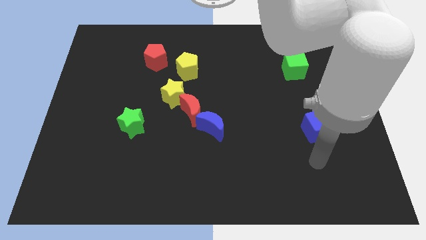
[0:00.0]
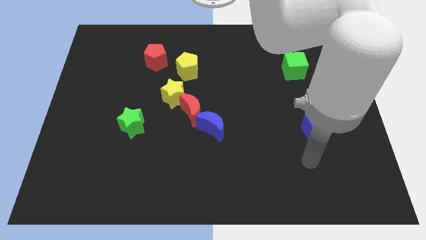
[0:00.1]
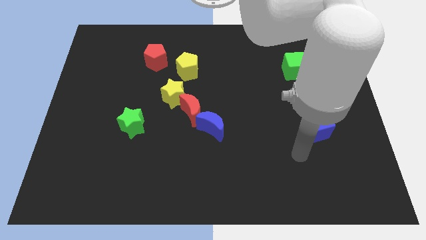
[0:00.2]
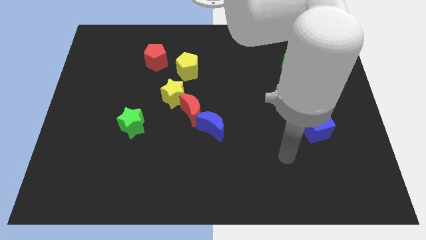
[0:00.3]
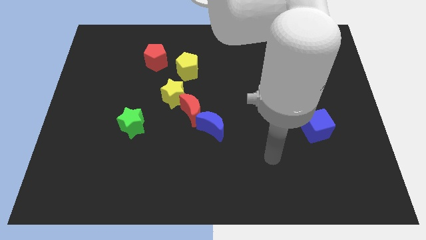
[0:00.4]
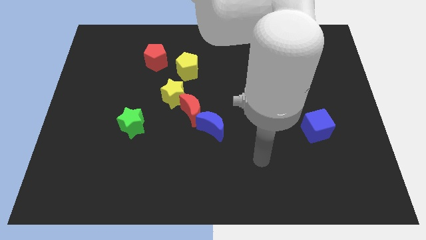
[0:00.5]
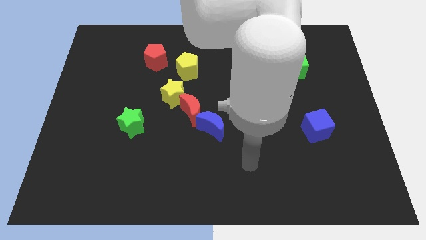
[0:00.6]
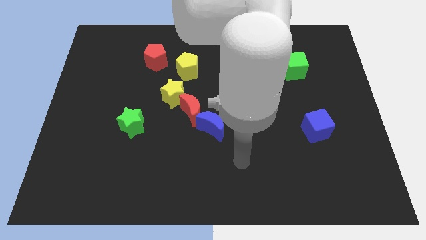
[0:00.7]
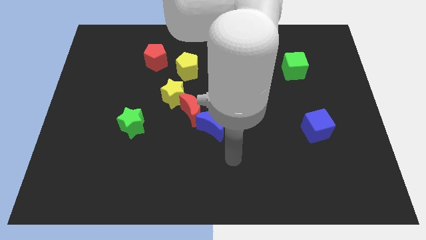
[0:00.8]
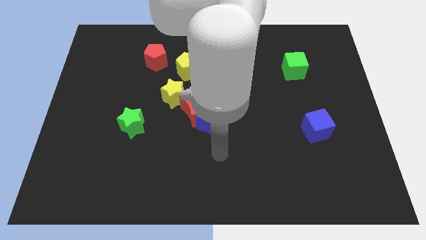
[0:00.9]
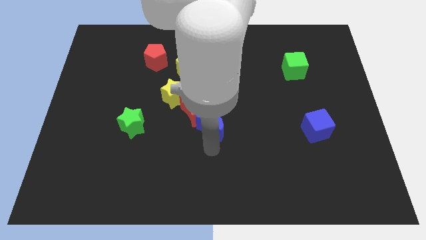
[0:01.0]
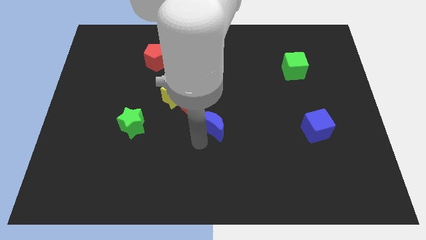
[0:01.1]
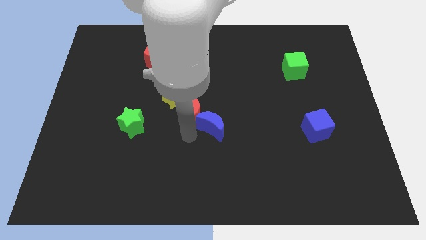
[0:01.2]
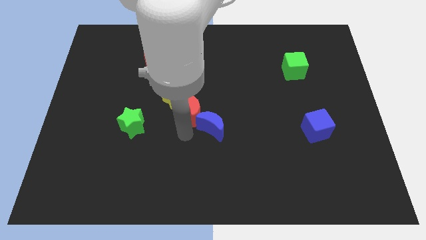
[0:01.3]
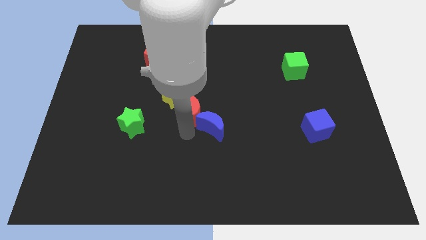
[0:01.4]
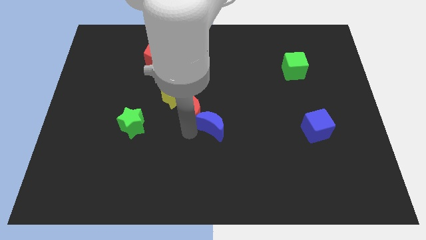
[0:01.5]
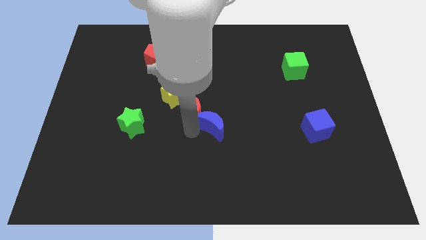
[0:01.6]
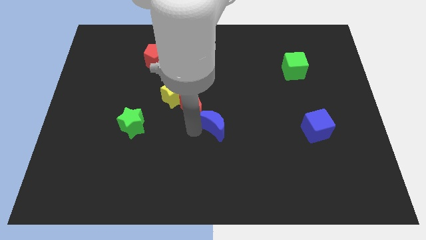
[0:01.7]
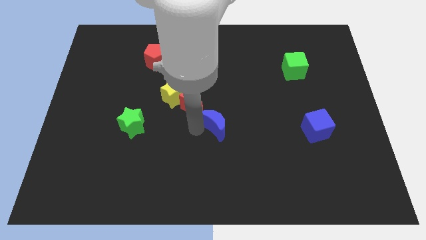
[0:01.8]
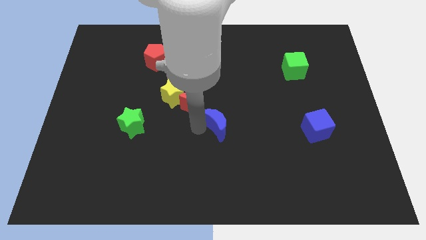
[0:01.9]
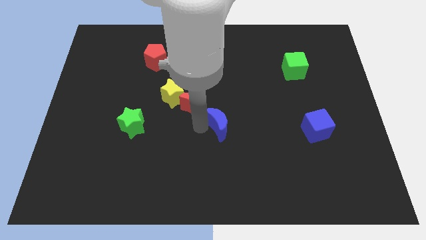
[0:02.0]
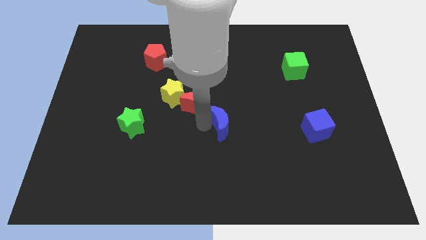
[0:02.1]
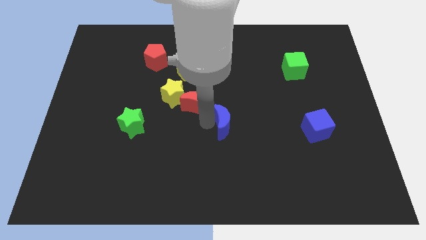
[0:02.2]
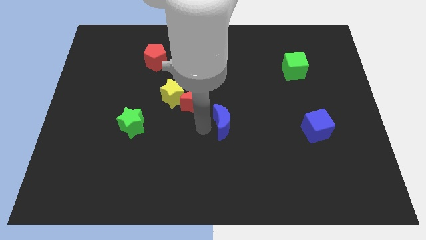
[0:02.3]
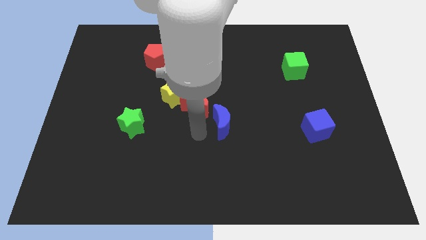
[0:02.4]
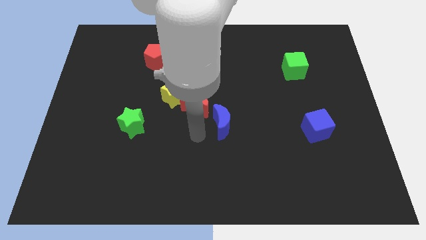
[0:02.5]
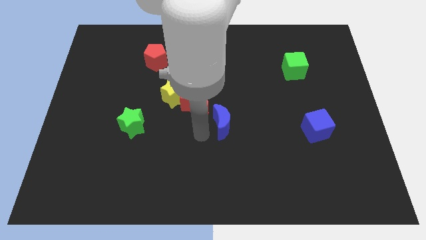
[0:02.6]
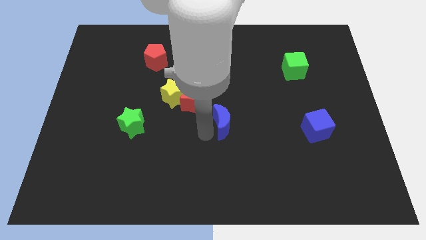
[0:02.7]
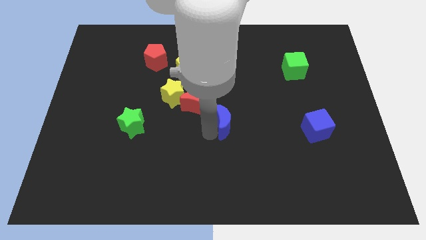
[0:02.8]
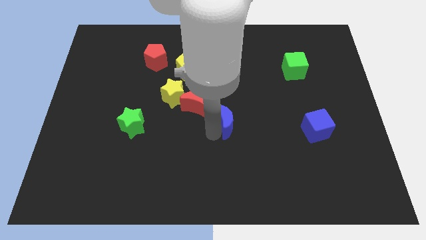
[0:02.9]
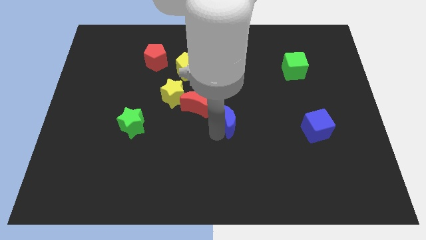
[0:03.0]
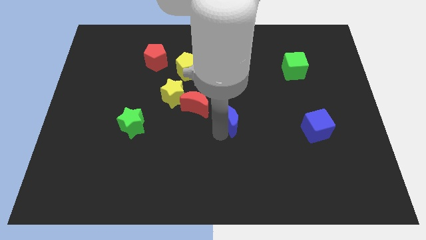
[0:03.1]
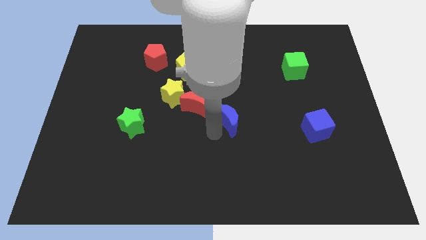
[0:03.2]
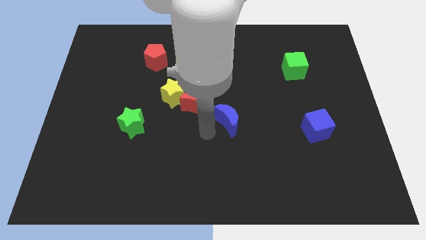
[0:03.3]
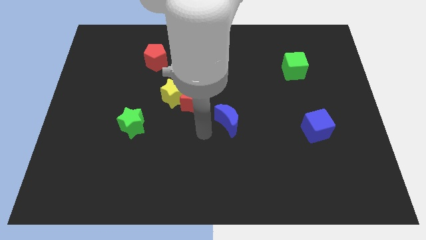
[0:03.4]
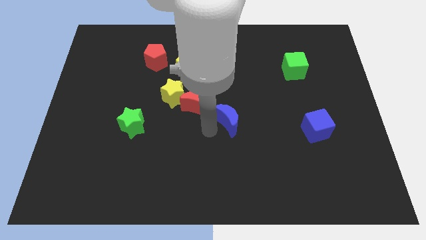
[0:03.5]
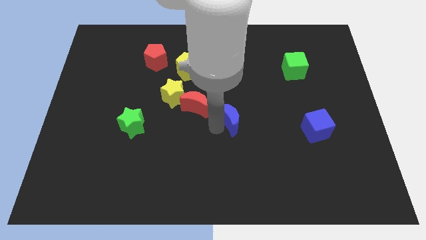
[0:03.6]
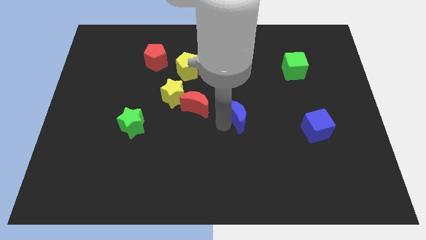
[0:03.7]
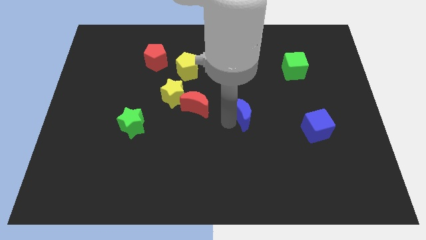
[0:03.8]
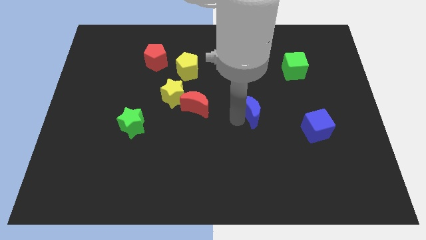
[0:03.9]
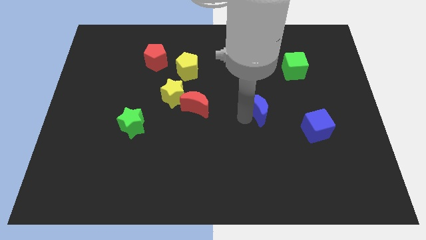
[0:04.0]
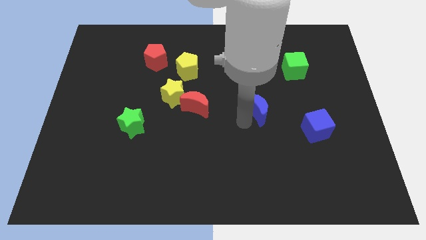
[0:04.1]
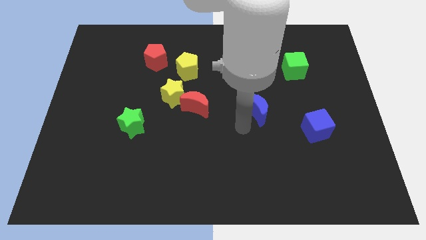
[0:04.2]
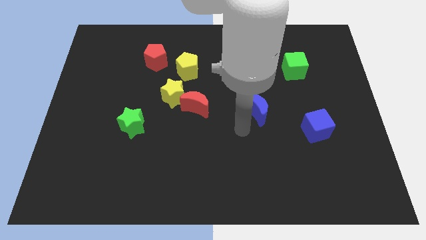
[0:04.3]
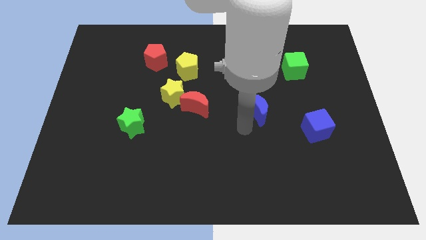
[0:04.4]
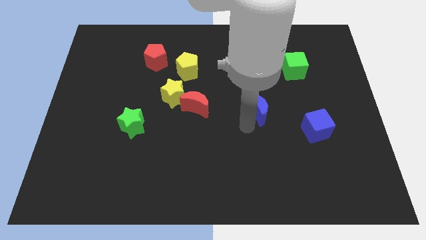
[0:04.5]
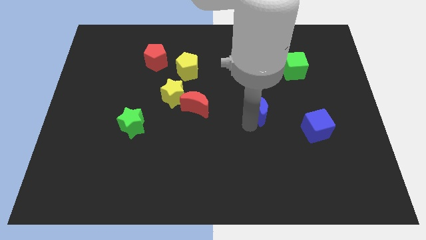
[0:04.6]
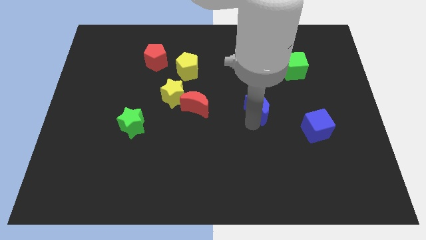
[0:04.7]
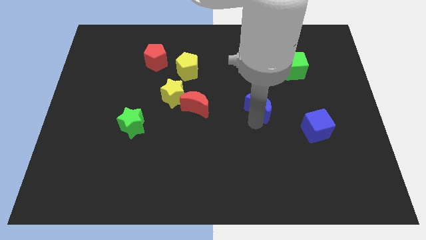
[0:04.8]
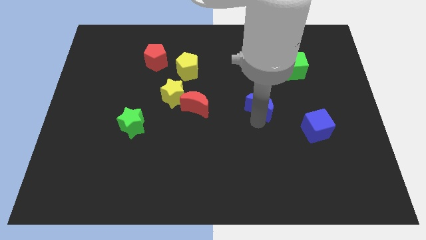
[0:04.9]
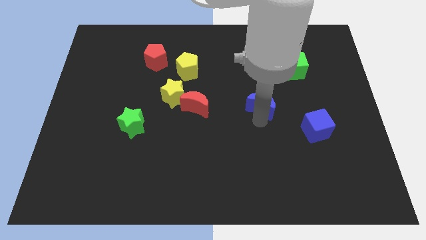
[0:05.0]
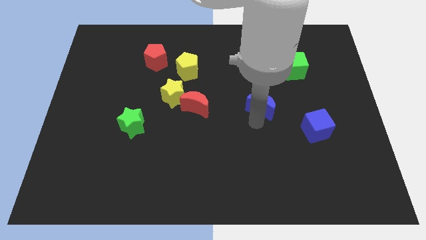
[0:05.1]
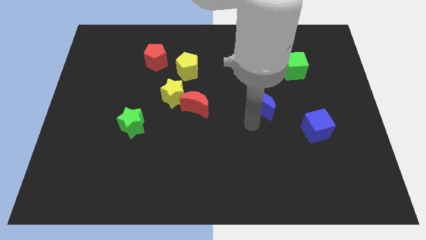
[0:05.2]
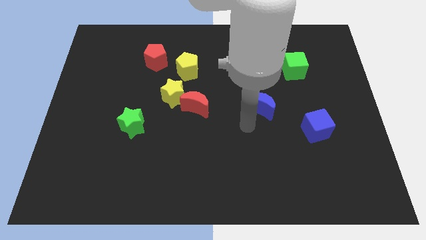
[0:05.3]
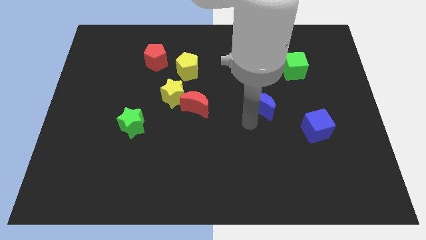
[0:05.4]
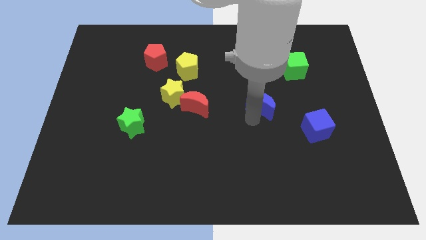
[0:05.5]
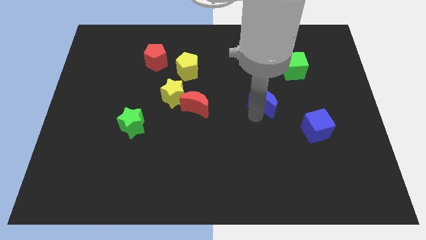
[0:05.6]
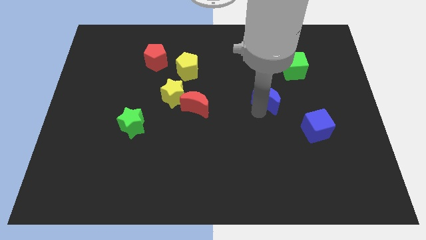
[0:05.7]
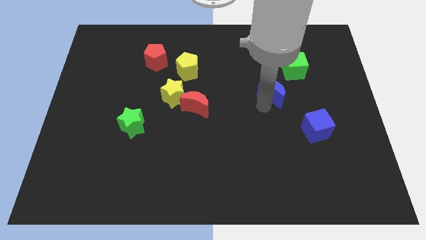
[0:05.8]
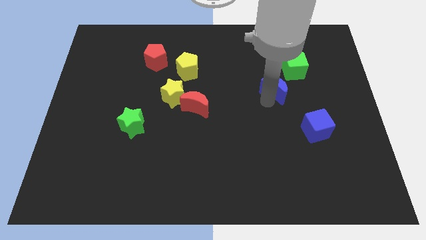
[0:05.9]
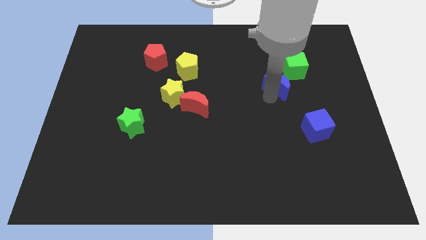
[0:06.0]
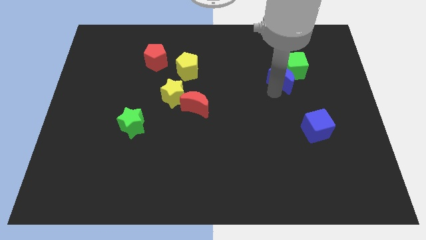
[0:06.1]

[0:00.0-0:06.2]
put the blue moon towards the green cube

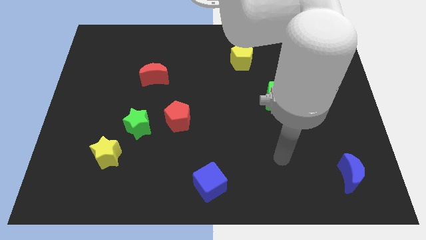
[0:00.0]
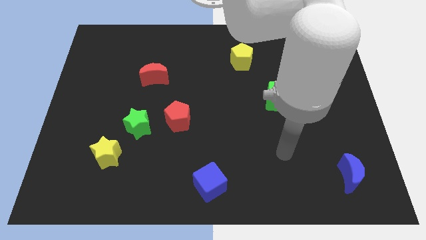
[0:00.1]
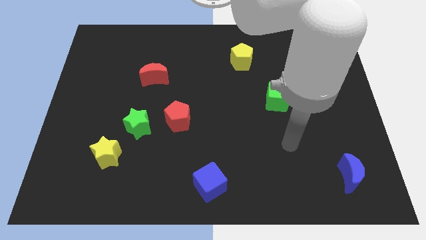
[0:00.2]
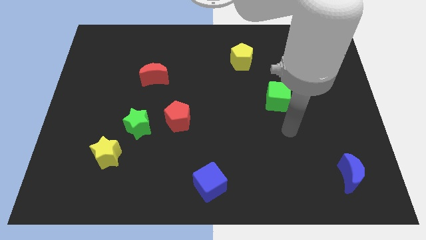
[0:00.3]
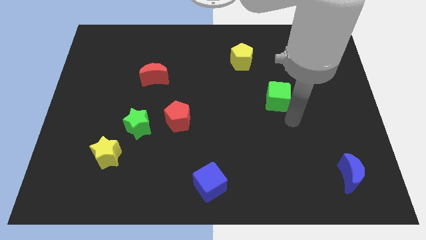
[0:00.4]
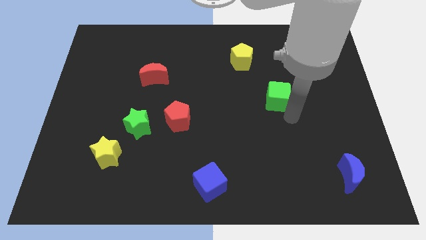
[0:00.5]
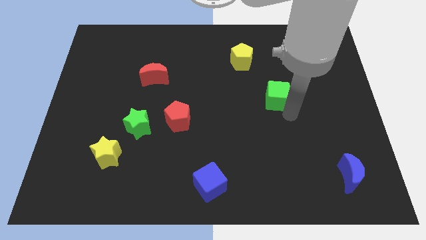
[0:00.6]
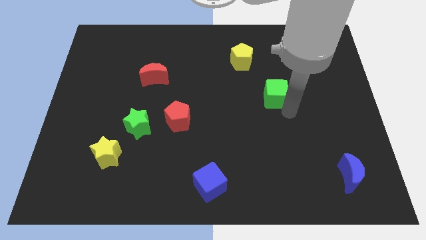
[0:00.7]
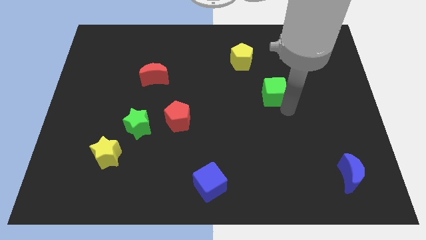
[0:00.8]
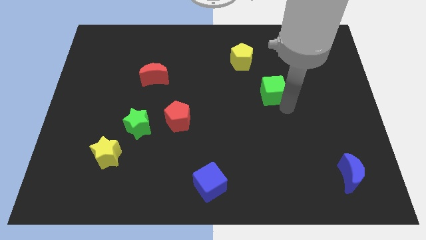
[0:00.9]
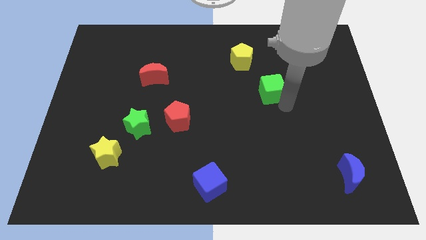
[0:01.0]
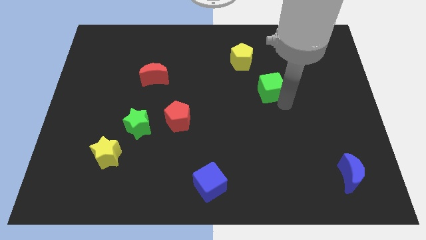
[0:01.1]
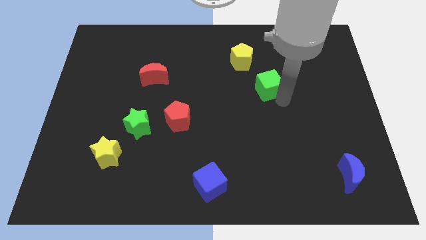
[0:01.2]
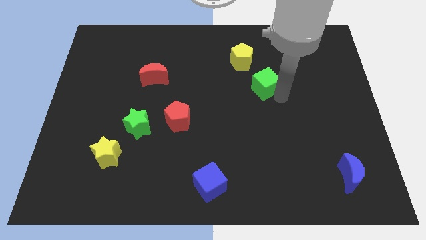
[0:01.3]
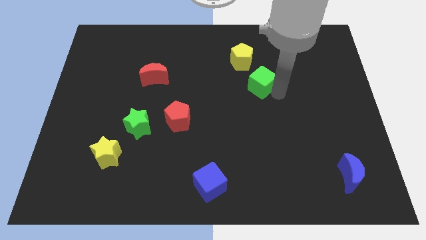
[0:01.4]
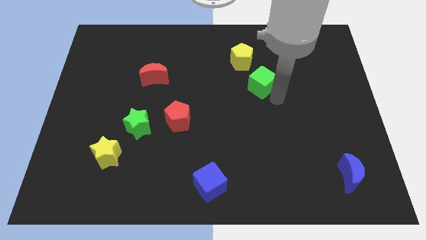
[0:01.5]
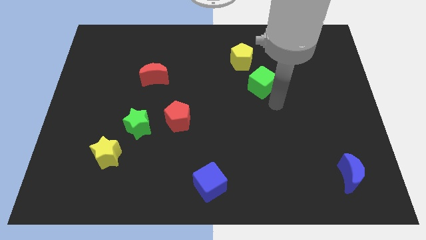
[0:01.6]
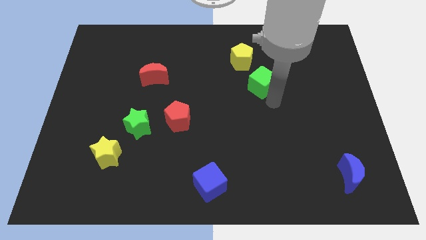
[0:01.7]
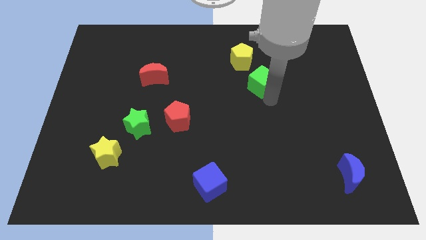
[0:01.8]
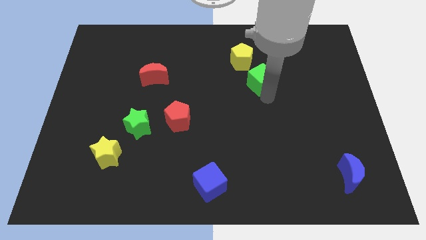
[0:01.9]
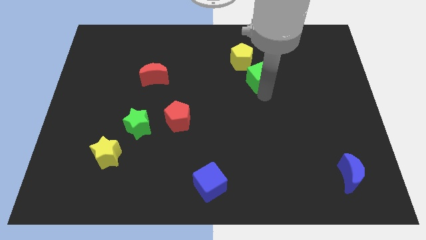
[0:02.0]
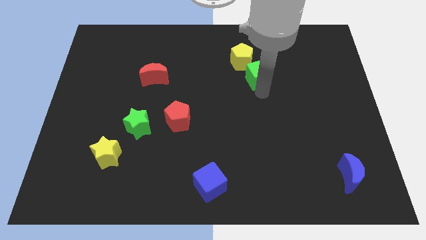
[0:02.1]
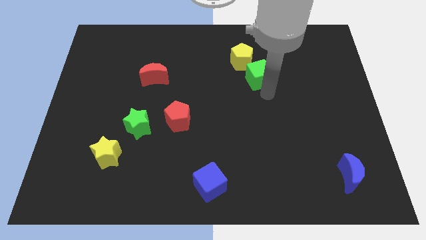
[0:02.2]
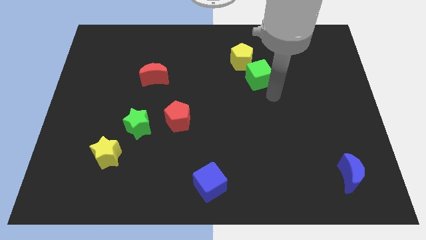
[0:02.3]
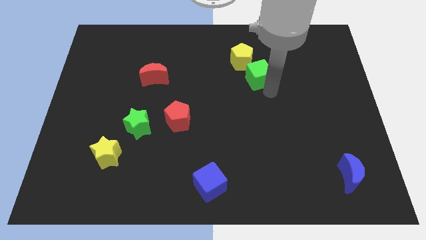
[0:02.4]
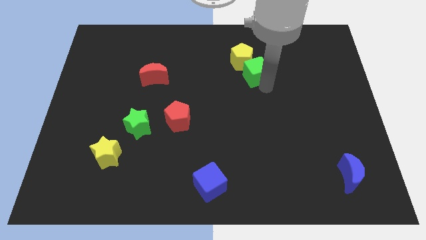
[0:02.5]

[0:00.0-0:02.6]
push the green cube towards the yellow pentagon
